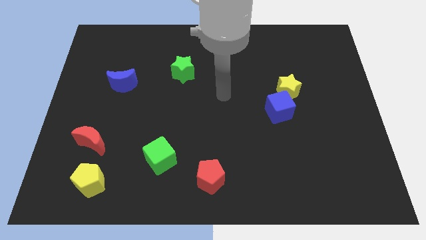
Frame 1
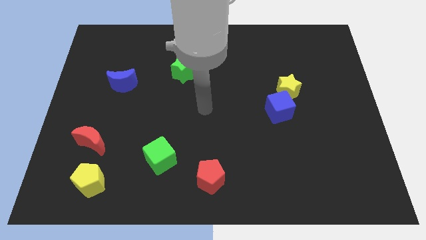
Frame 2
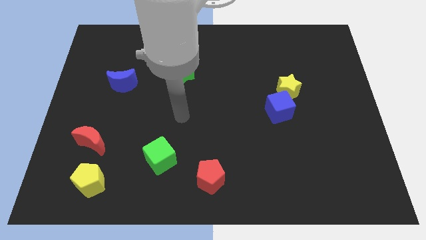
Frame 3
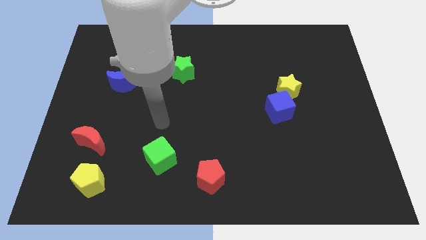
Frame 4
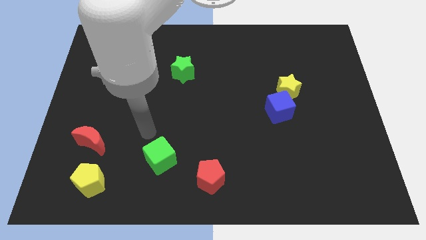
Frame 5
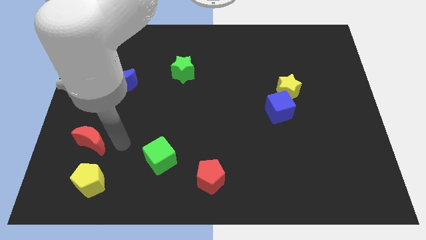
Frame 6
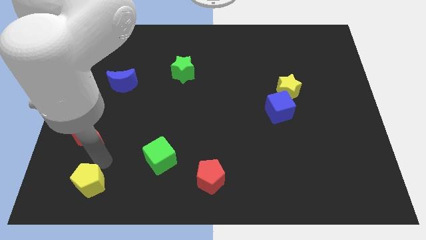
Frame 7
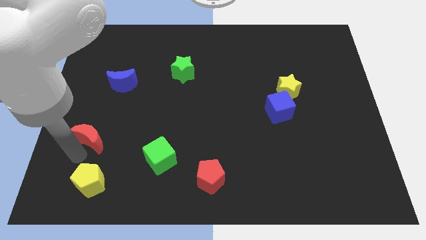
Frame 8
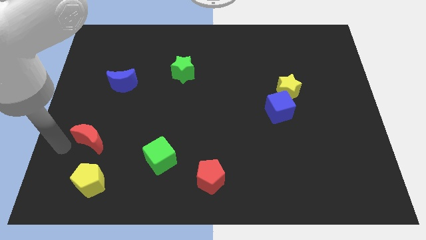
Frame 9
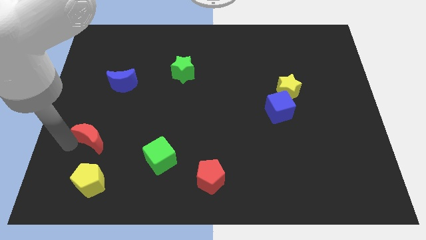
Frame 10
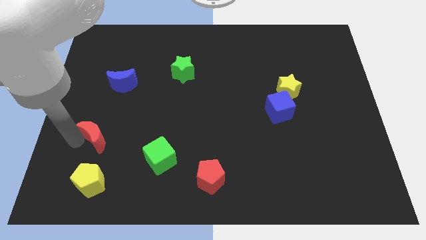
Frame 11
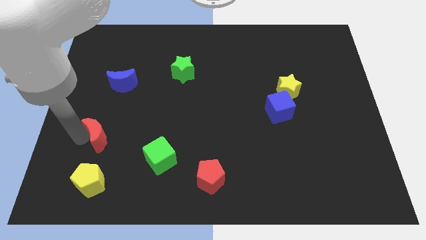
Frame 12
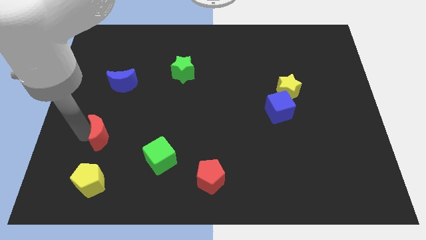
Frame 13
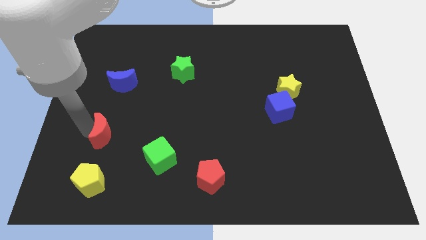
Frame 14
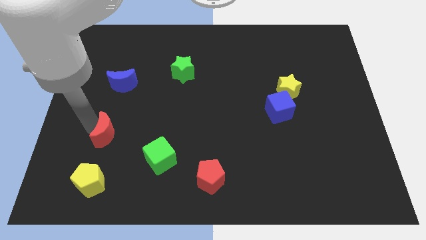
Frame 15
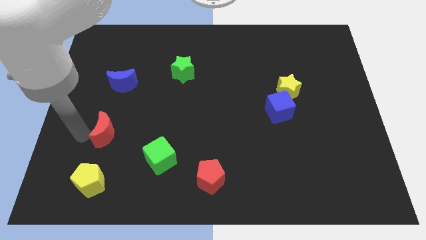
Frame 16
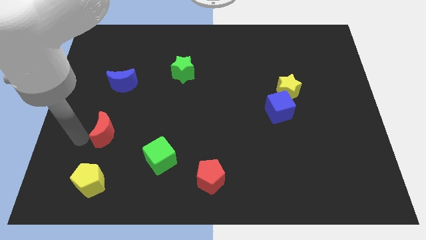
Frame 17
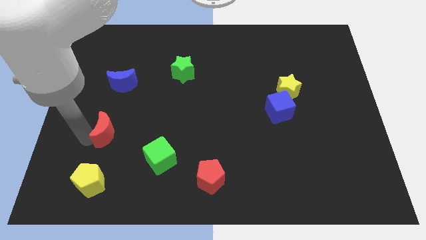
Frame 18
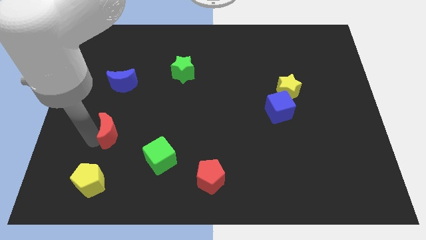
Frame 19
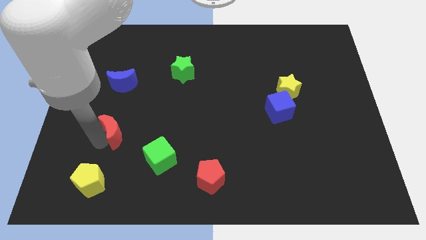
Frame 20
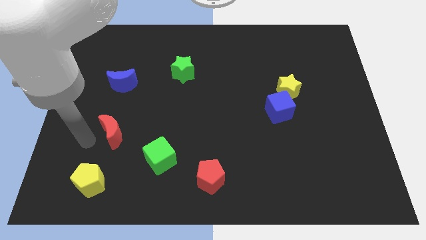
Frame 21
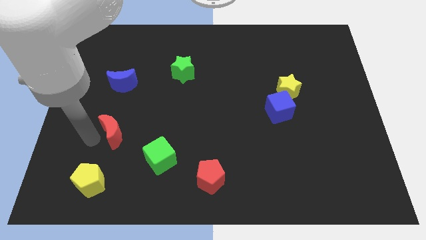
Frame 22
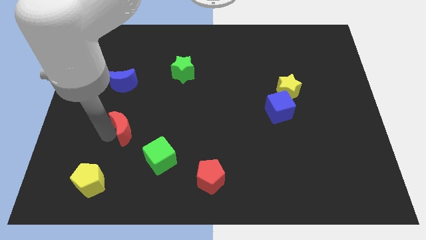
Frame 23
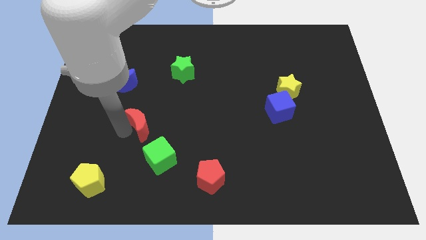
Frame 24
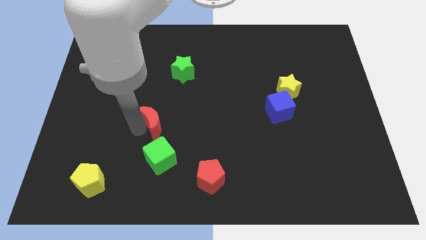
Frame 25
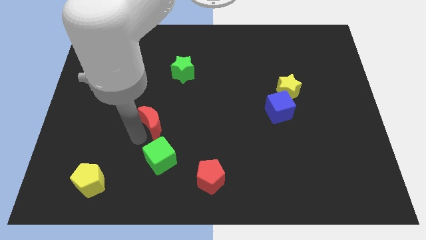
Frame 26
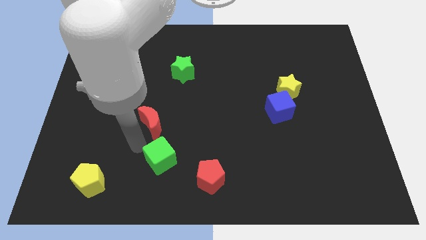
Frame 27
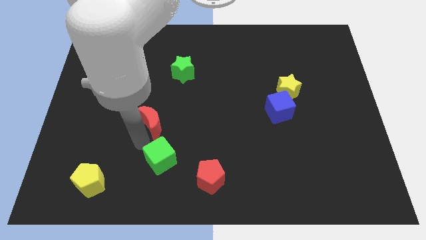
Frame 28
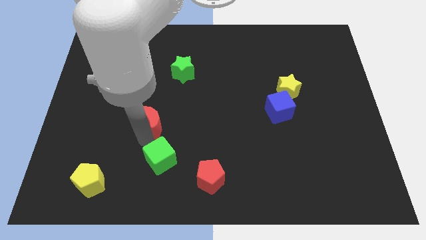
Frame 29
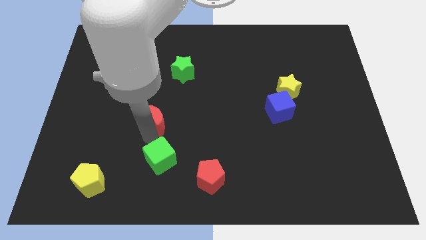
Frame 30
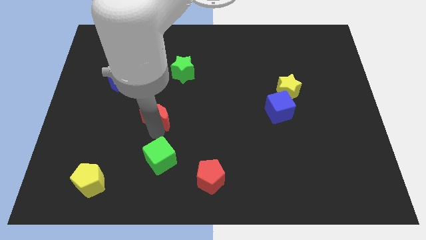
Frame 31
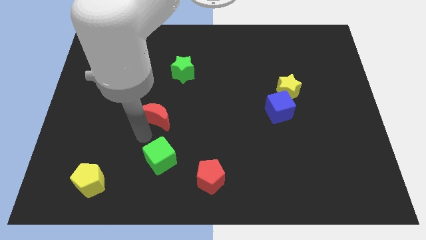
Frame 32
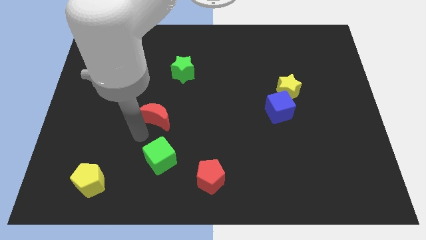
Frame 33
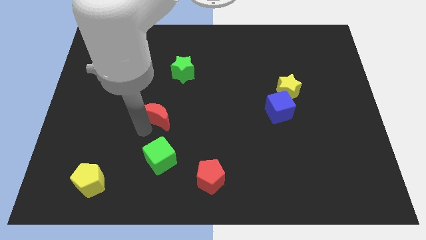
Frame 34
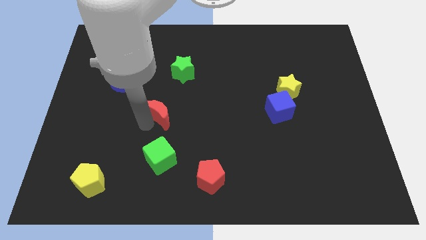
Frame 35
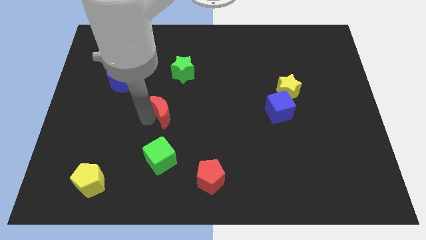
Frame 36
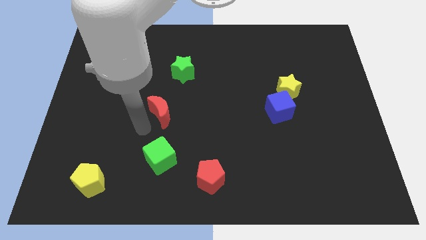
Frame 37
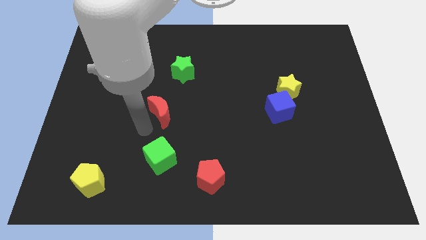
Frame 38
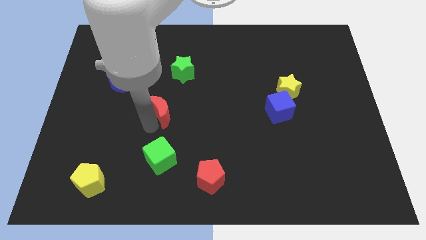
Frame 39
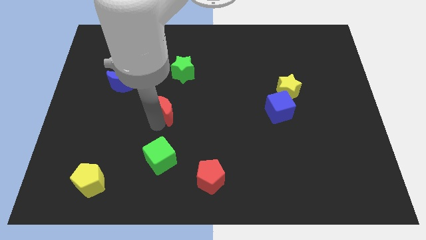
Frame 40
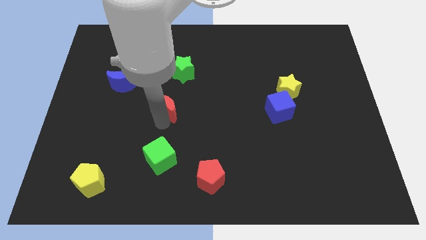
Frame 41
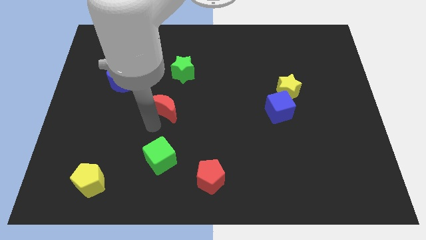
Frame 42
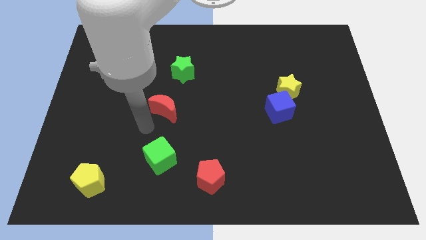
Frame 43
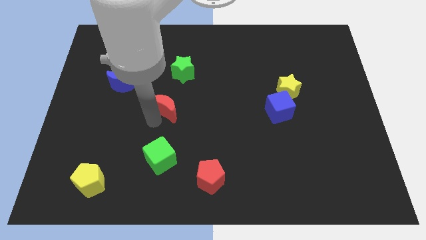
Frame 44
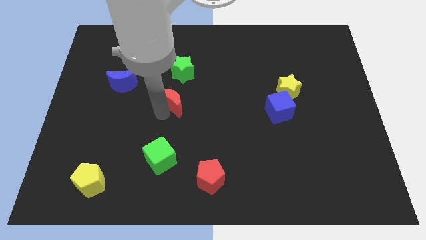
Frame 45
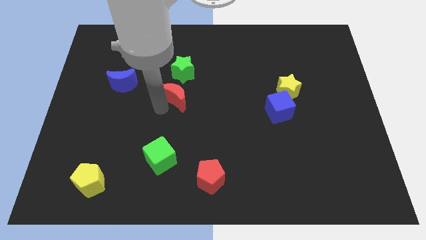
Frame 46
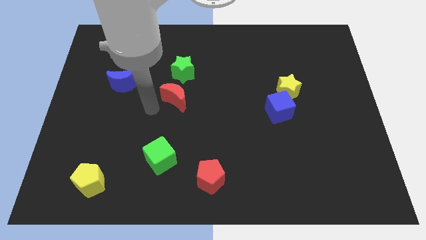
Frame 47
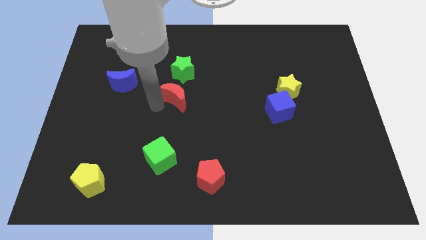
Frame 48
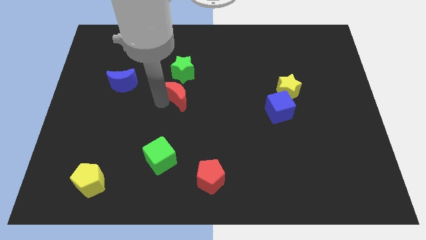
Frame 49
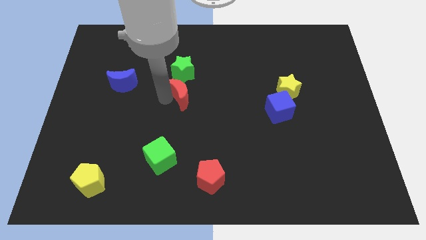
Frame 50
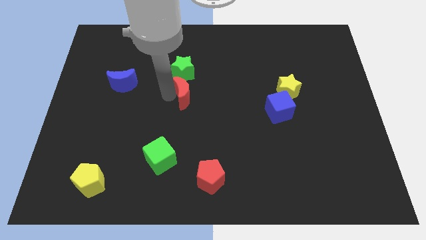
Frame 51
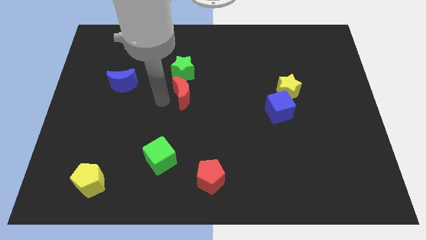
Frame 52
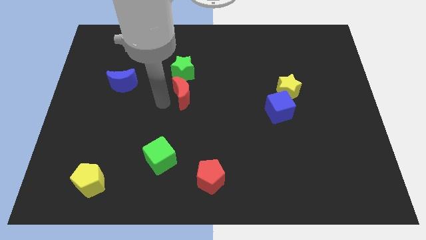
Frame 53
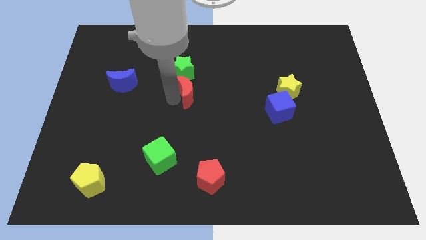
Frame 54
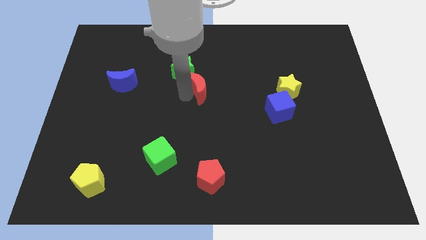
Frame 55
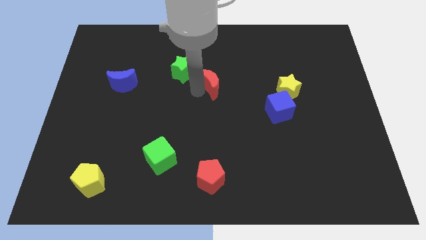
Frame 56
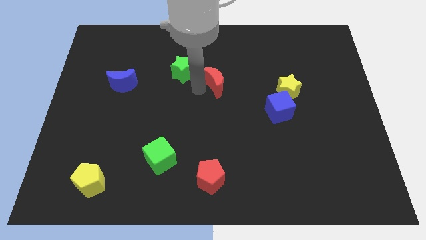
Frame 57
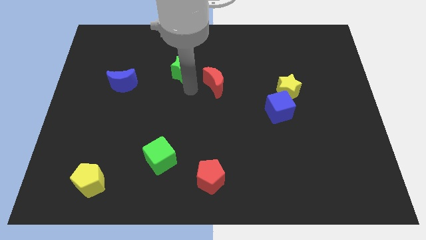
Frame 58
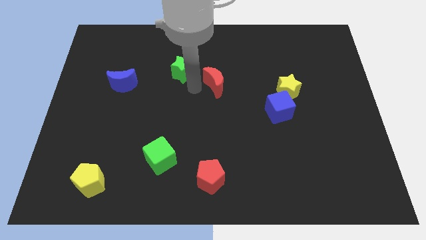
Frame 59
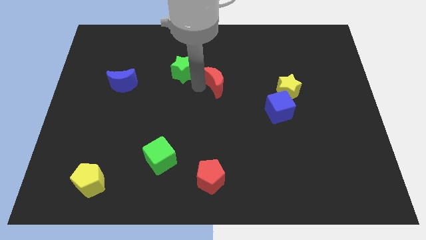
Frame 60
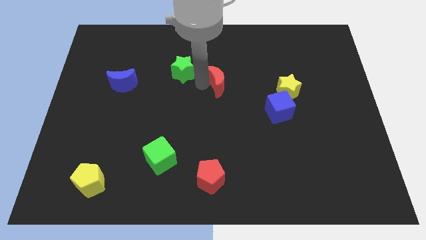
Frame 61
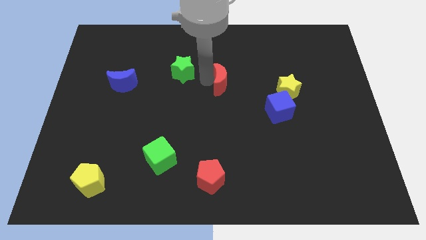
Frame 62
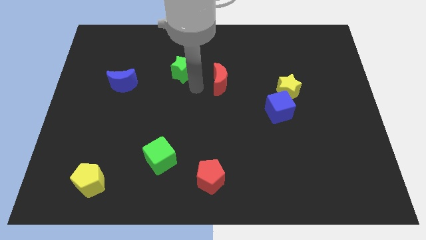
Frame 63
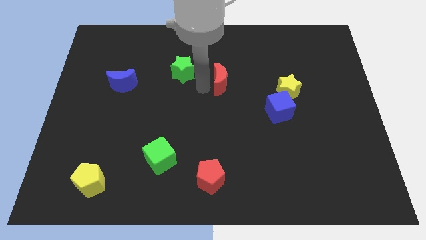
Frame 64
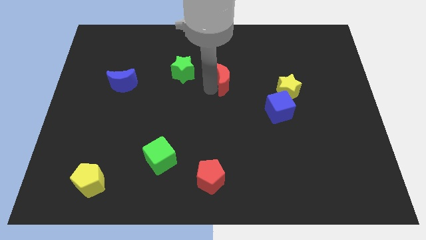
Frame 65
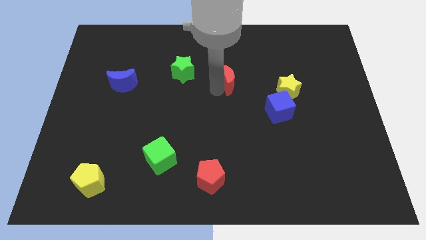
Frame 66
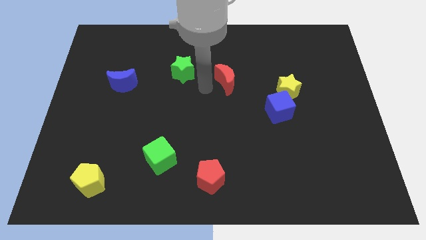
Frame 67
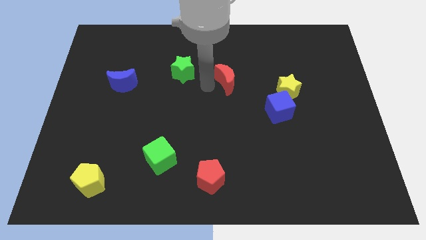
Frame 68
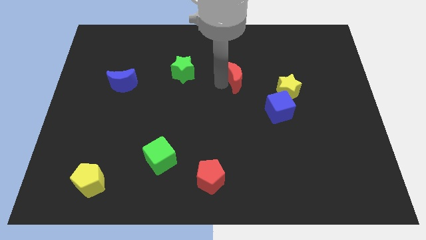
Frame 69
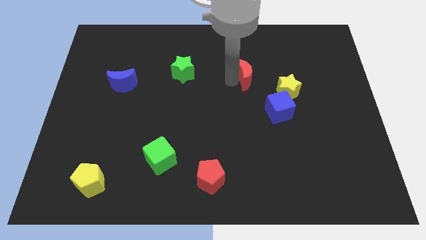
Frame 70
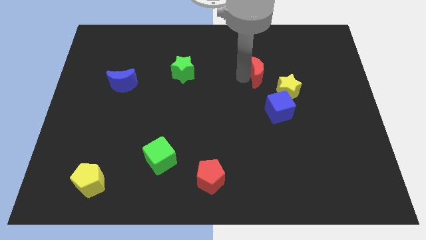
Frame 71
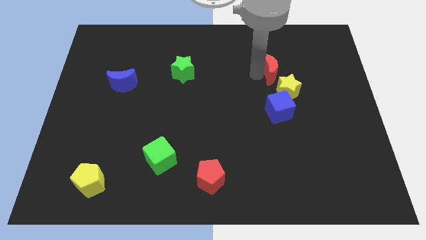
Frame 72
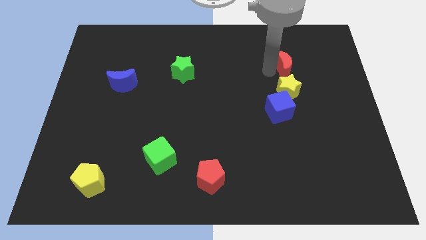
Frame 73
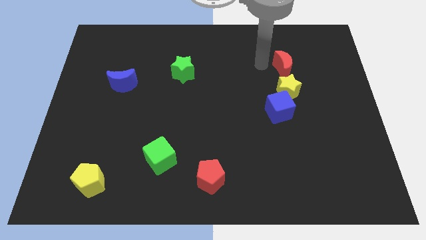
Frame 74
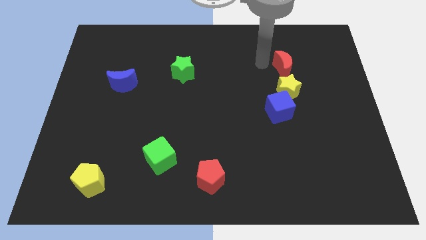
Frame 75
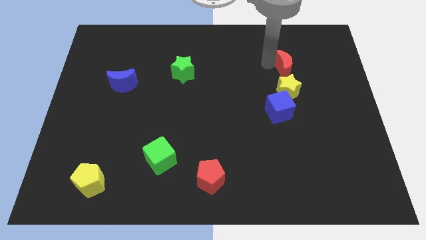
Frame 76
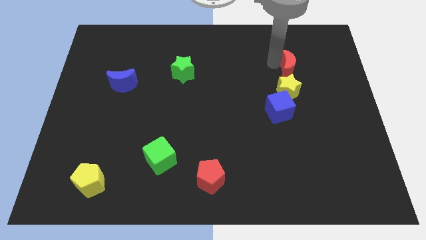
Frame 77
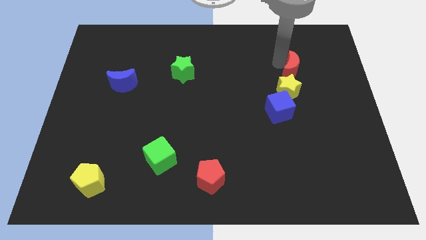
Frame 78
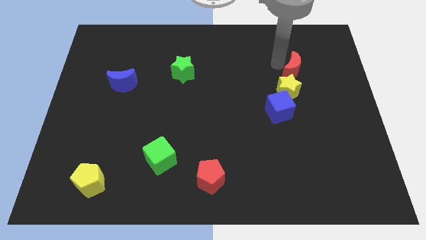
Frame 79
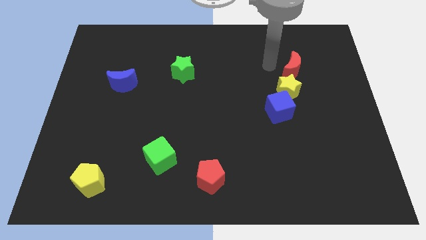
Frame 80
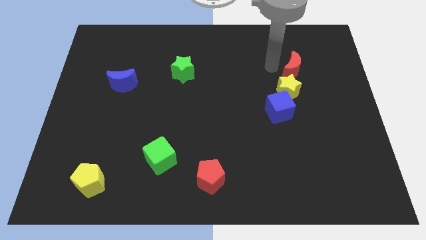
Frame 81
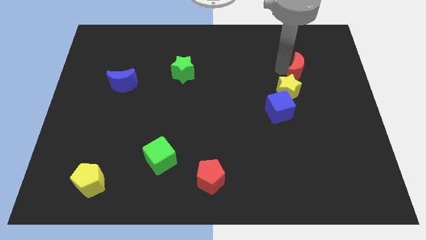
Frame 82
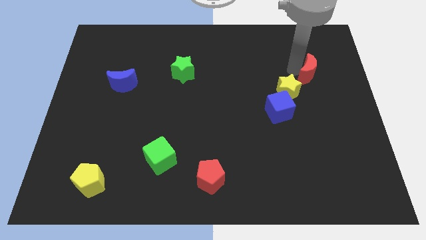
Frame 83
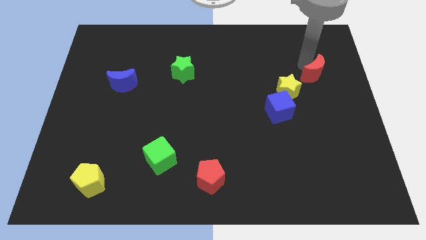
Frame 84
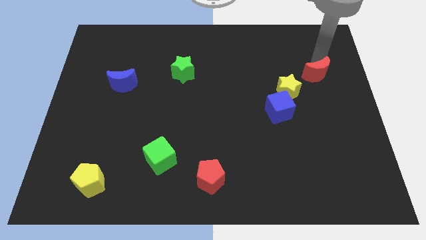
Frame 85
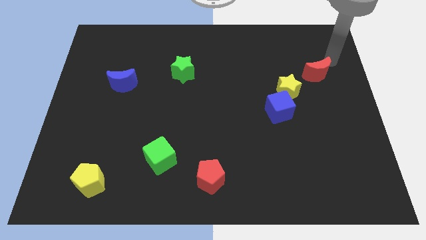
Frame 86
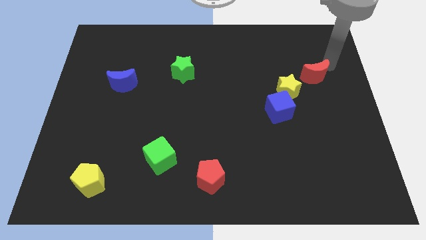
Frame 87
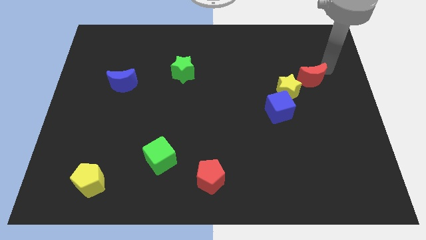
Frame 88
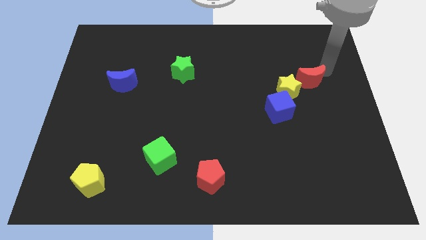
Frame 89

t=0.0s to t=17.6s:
push the red moon to the top right of the blue cube
